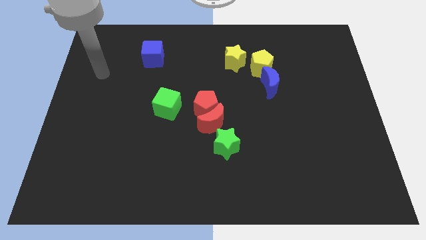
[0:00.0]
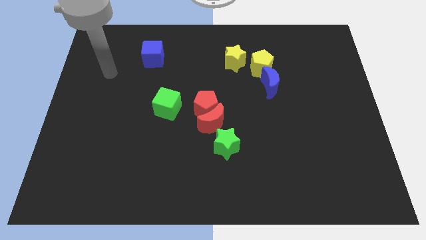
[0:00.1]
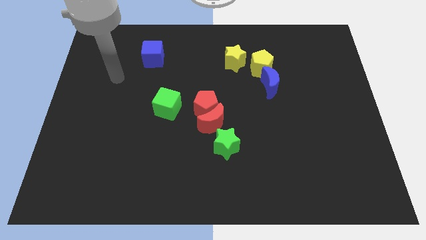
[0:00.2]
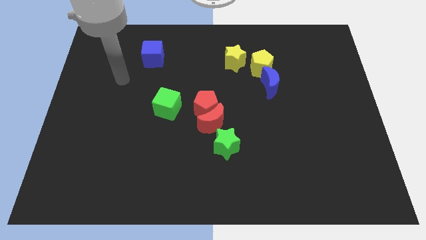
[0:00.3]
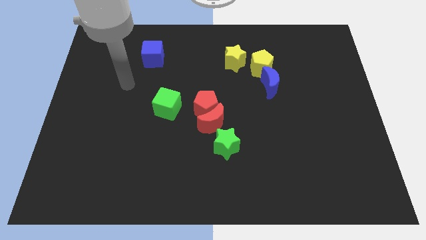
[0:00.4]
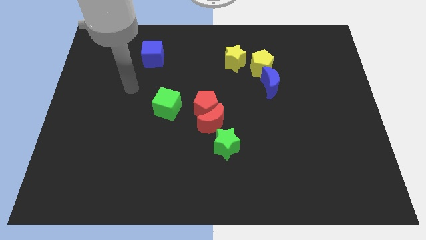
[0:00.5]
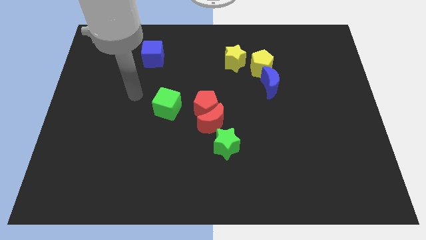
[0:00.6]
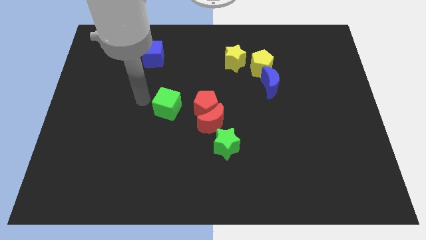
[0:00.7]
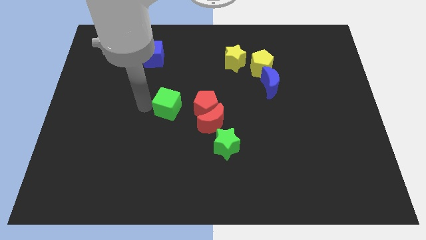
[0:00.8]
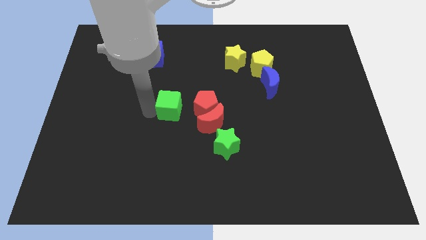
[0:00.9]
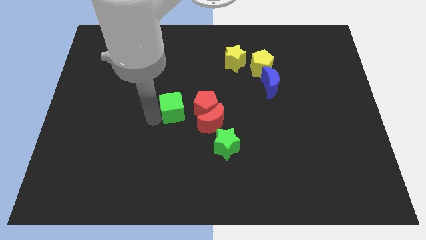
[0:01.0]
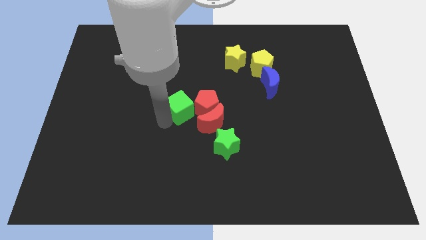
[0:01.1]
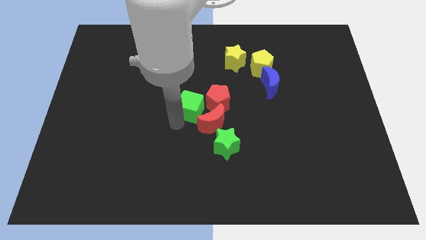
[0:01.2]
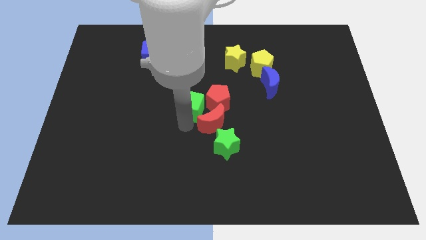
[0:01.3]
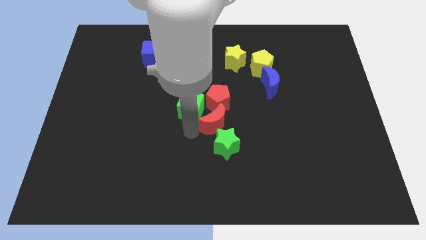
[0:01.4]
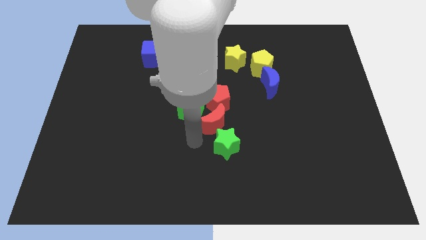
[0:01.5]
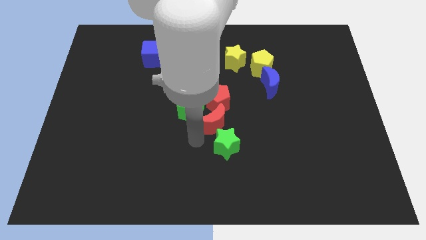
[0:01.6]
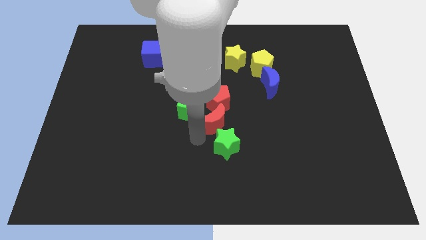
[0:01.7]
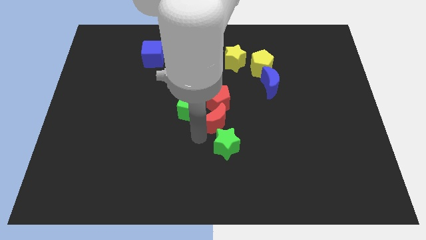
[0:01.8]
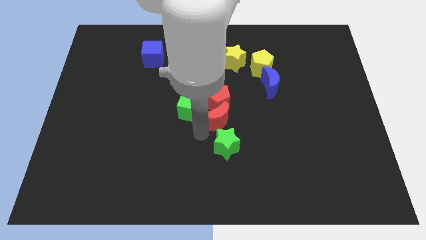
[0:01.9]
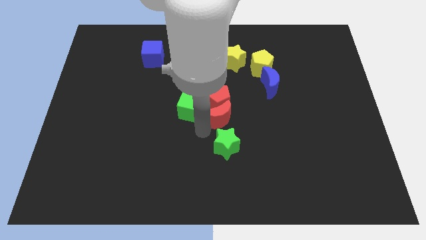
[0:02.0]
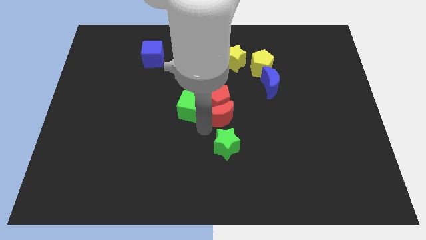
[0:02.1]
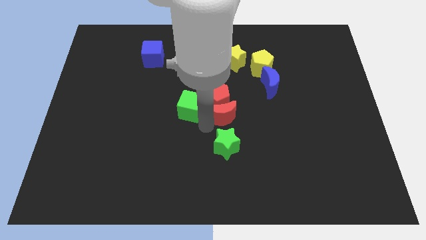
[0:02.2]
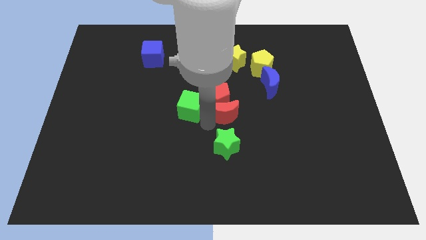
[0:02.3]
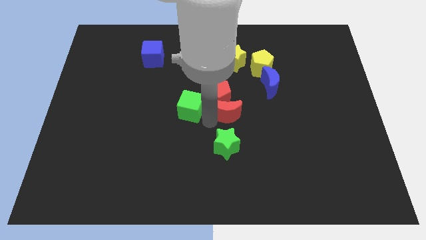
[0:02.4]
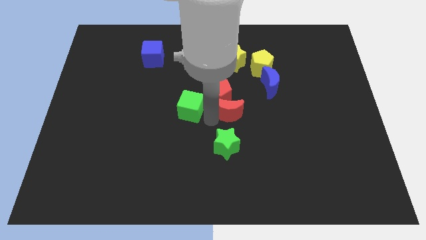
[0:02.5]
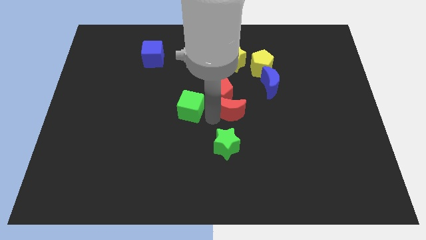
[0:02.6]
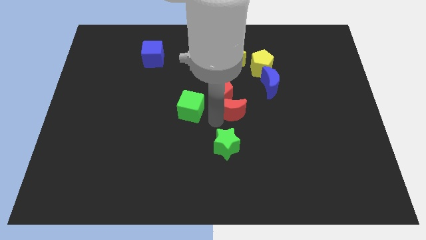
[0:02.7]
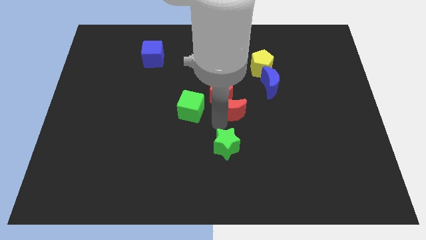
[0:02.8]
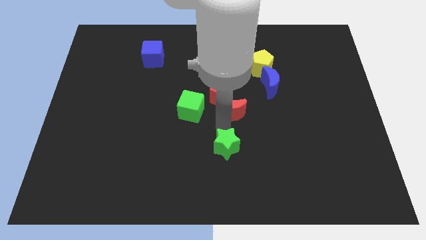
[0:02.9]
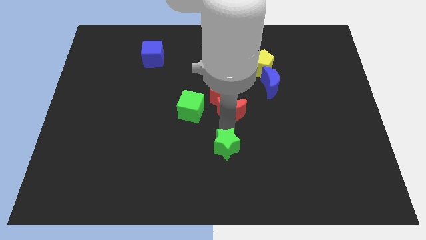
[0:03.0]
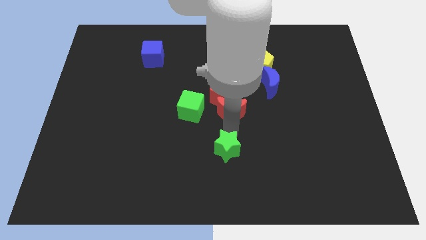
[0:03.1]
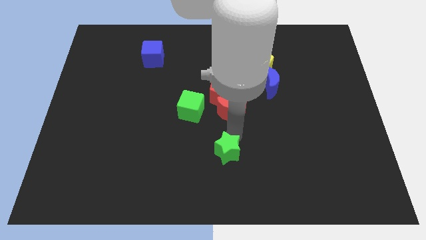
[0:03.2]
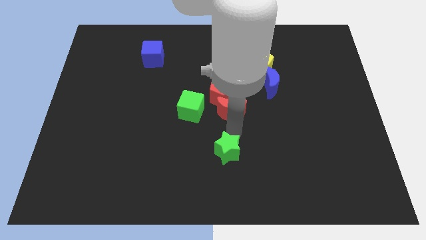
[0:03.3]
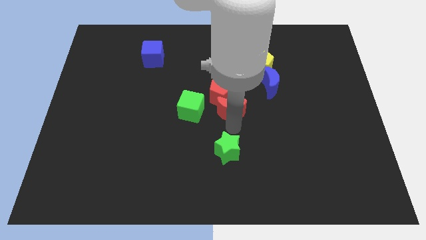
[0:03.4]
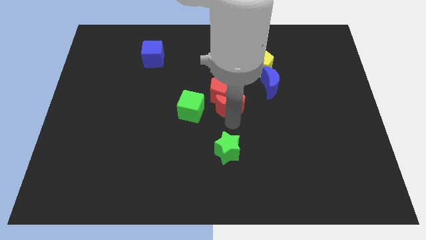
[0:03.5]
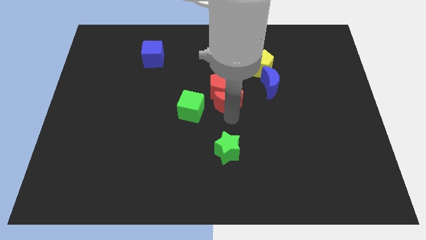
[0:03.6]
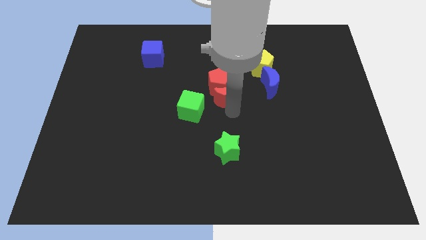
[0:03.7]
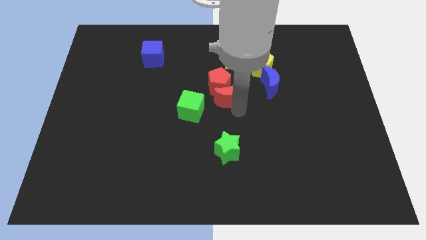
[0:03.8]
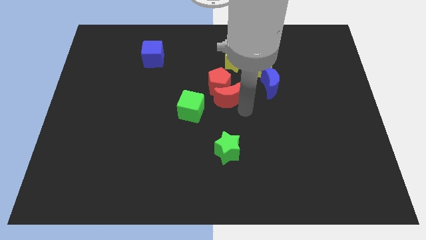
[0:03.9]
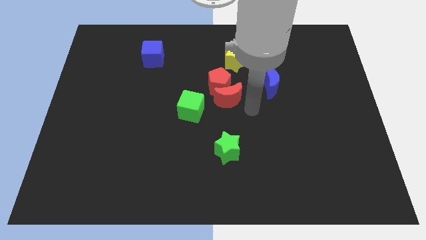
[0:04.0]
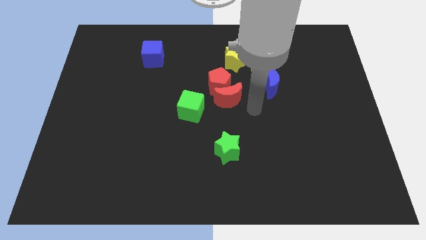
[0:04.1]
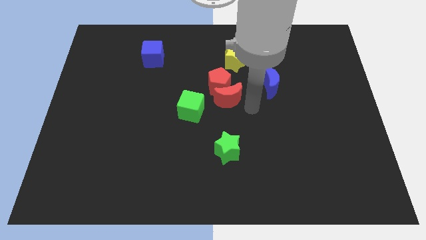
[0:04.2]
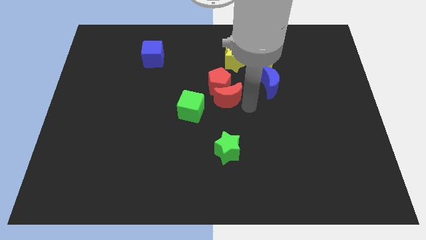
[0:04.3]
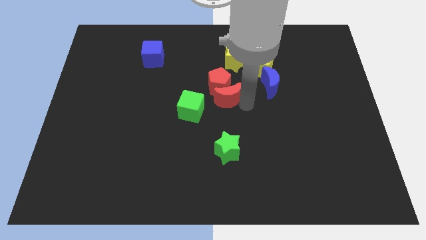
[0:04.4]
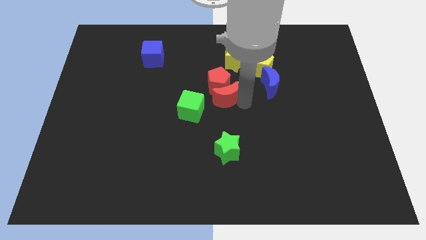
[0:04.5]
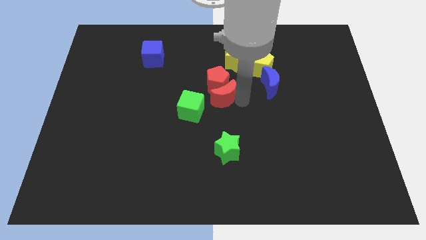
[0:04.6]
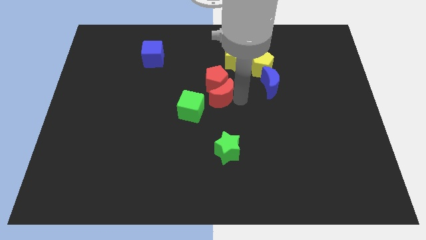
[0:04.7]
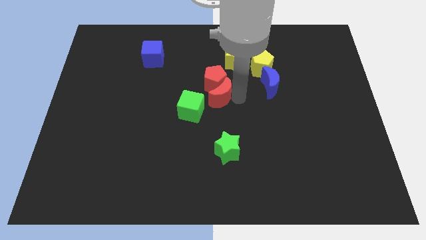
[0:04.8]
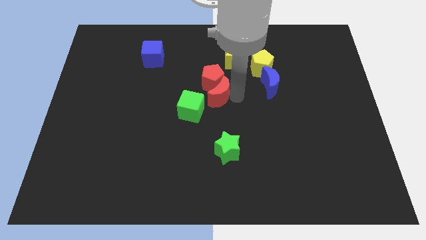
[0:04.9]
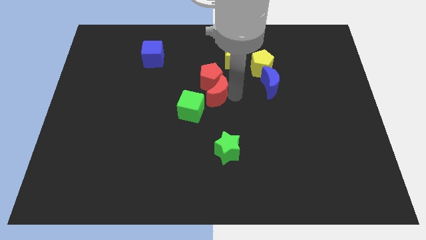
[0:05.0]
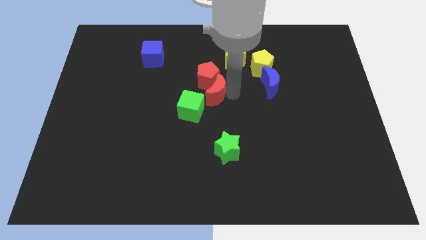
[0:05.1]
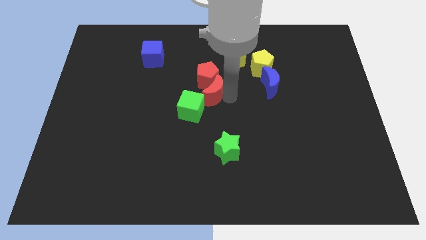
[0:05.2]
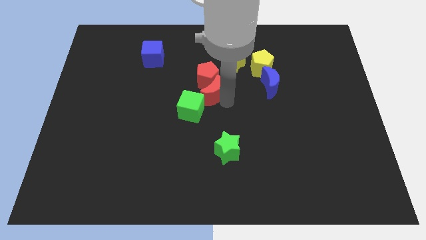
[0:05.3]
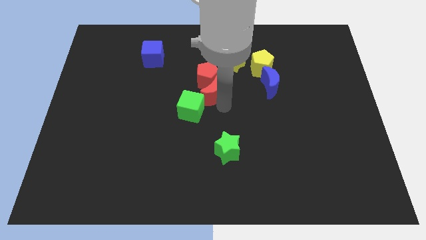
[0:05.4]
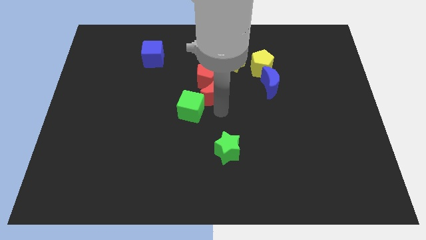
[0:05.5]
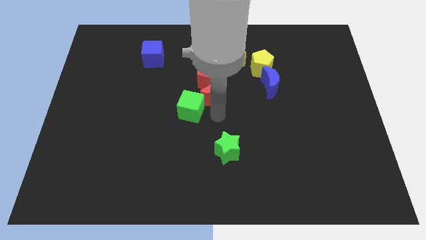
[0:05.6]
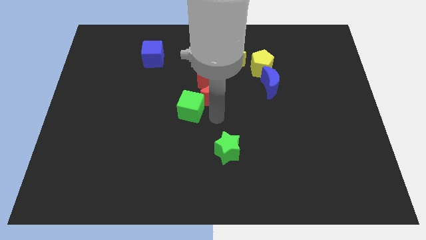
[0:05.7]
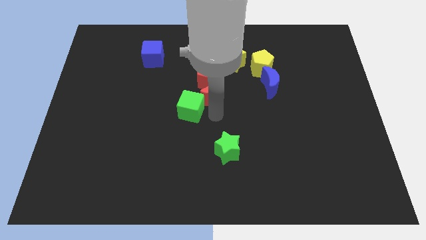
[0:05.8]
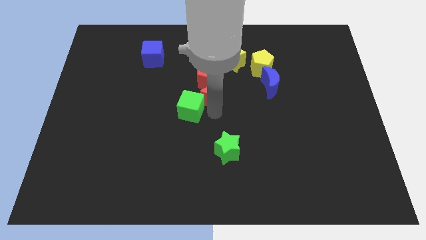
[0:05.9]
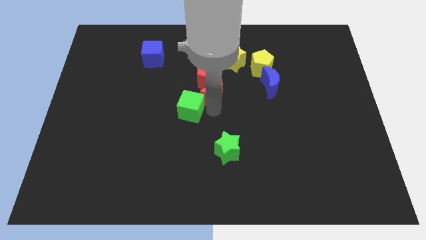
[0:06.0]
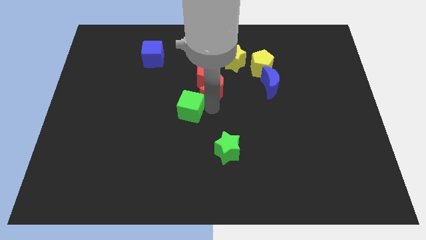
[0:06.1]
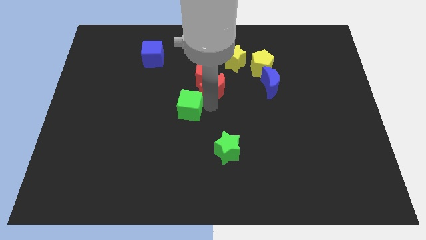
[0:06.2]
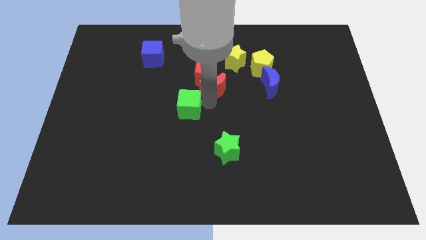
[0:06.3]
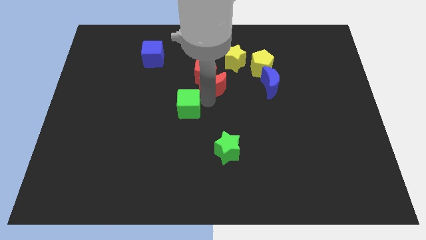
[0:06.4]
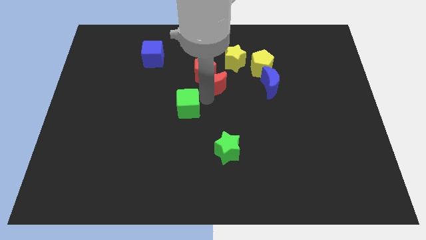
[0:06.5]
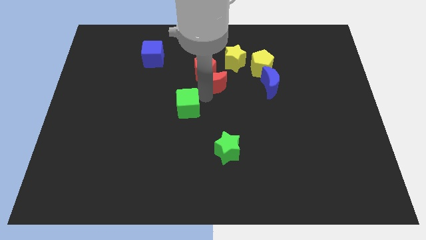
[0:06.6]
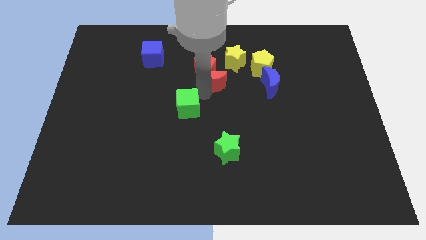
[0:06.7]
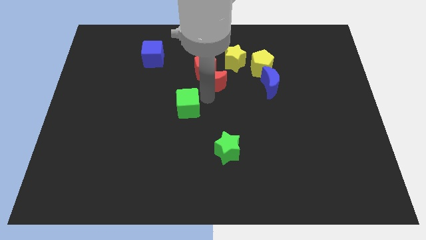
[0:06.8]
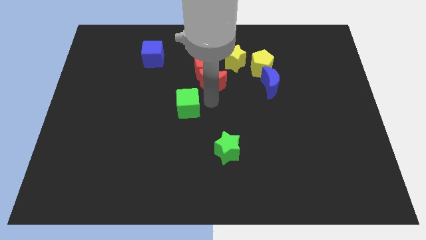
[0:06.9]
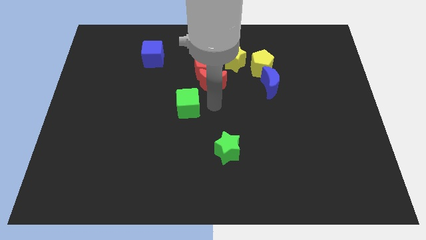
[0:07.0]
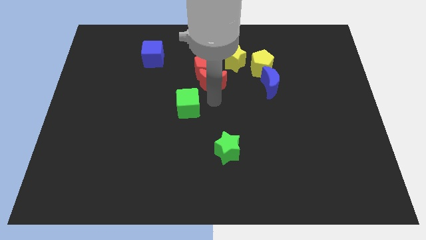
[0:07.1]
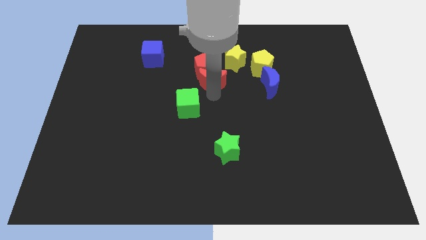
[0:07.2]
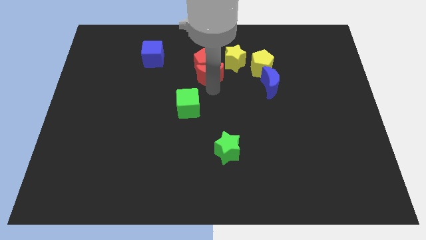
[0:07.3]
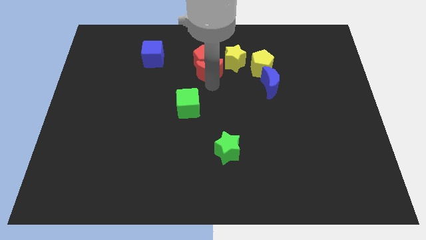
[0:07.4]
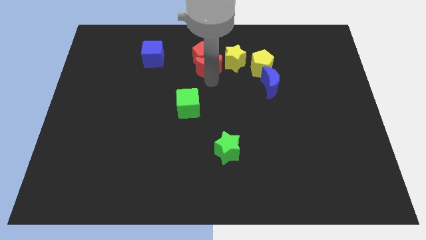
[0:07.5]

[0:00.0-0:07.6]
separate the red moon from the red pentagon and green star

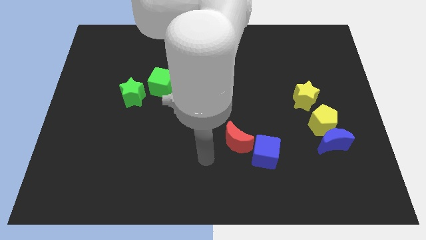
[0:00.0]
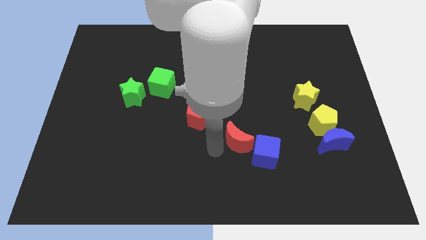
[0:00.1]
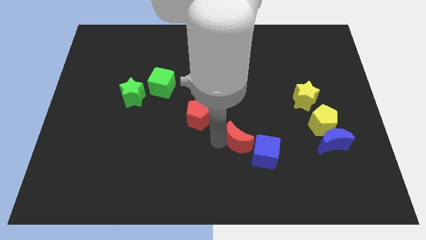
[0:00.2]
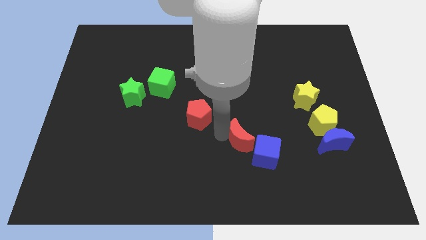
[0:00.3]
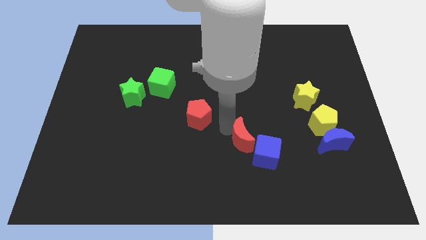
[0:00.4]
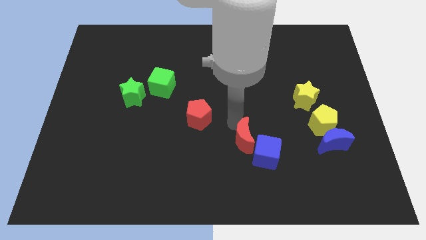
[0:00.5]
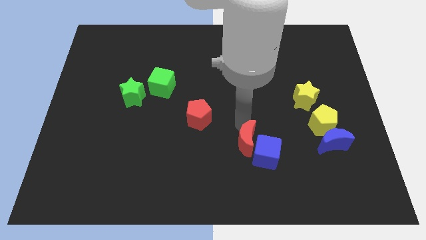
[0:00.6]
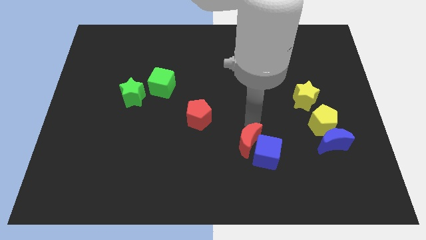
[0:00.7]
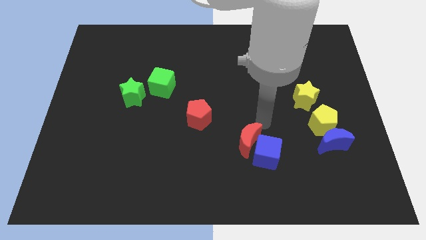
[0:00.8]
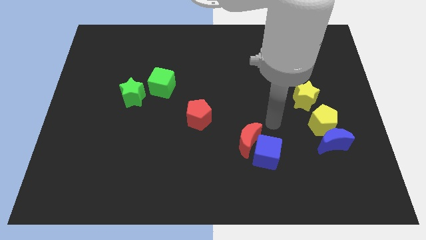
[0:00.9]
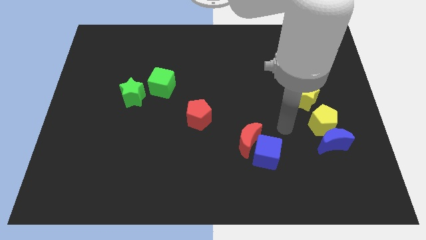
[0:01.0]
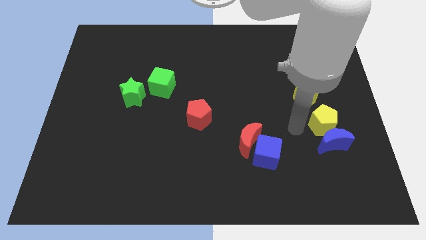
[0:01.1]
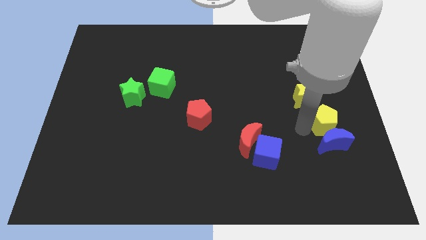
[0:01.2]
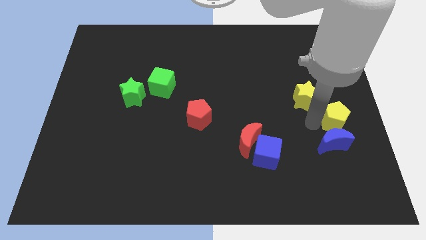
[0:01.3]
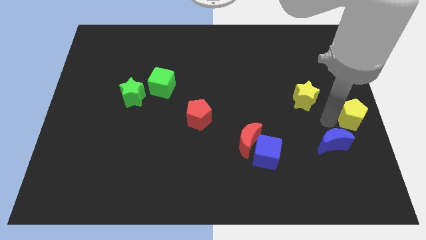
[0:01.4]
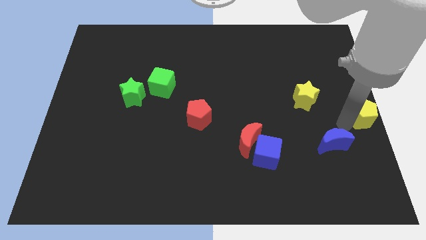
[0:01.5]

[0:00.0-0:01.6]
move the blue moon away from the yellow pentagon
